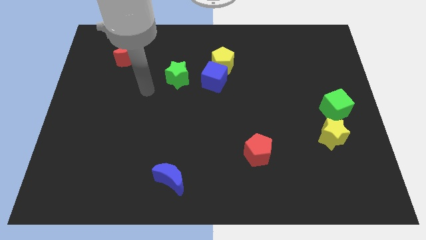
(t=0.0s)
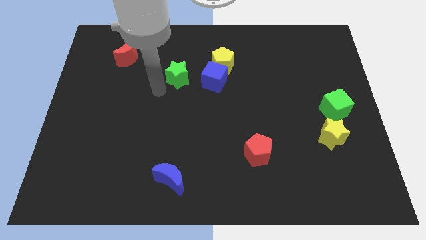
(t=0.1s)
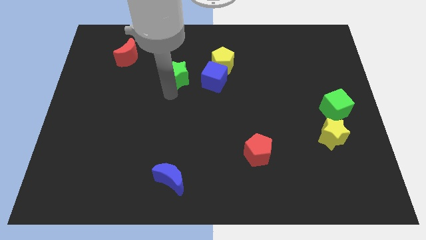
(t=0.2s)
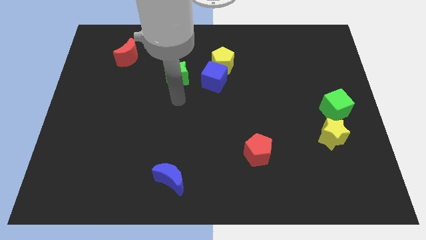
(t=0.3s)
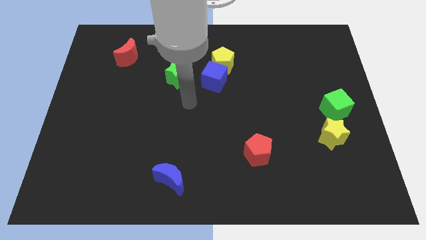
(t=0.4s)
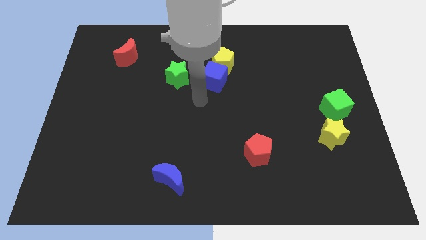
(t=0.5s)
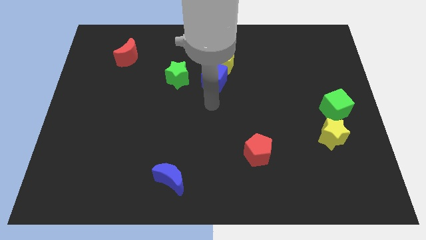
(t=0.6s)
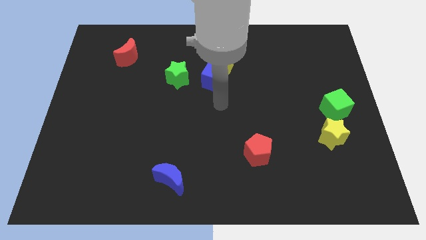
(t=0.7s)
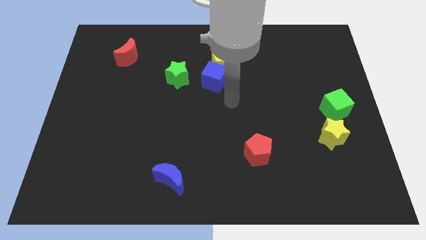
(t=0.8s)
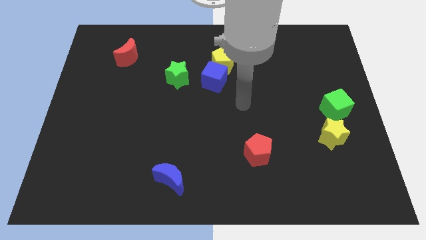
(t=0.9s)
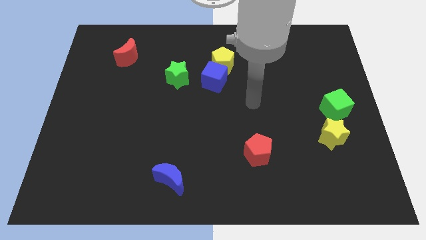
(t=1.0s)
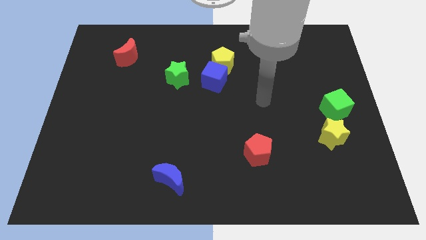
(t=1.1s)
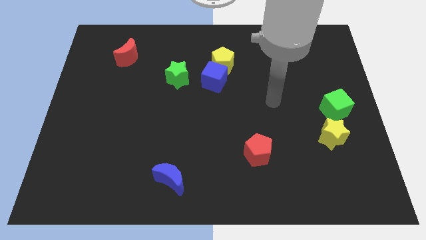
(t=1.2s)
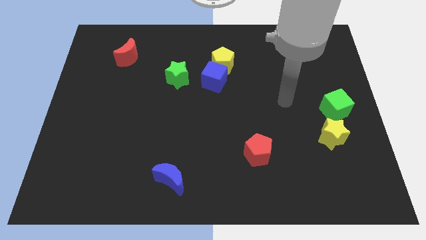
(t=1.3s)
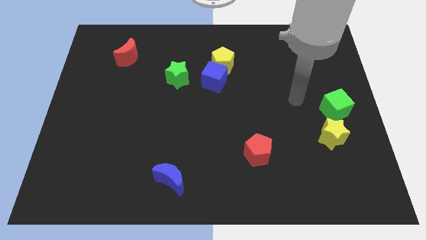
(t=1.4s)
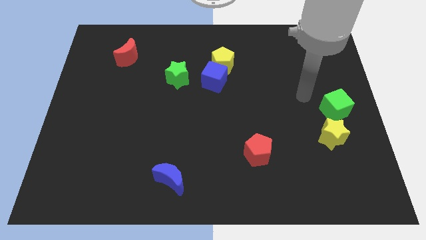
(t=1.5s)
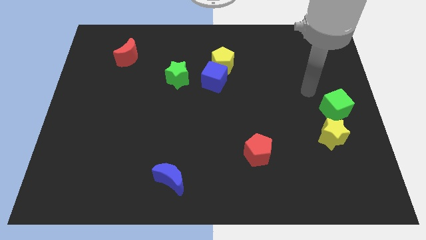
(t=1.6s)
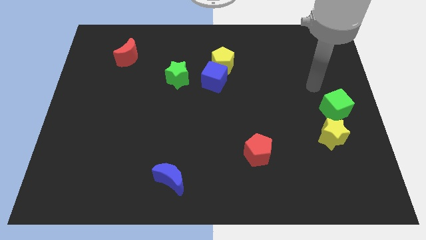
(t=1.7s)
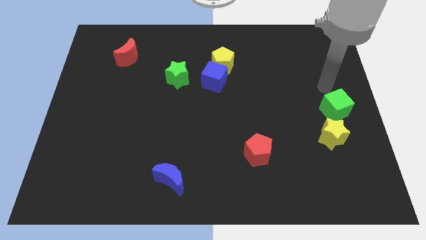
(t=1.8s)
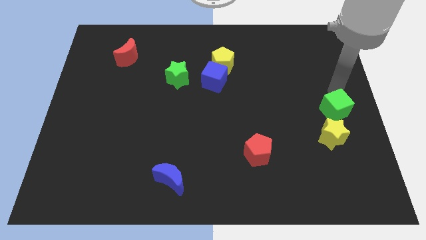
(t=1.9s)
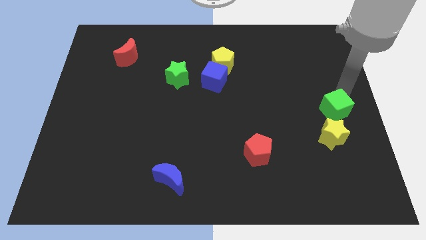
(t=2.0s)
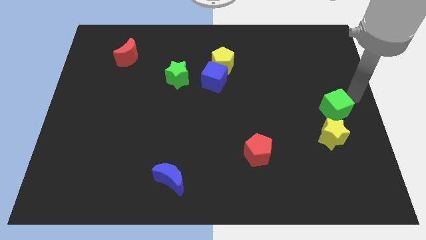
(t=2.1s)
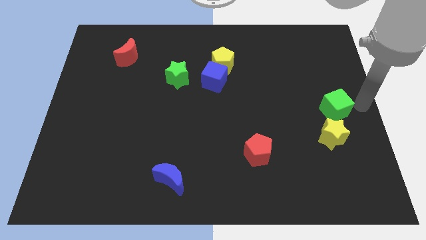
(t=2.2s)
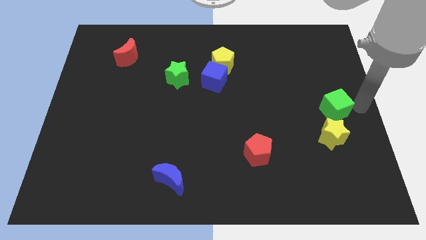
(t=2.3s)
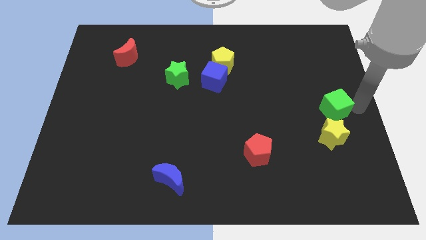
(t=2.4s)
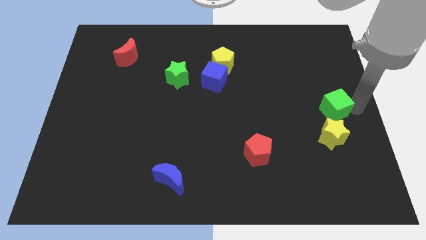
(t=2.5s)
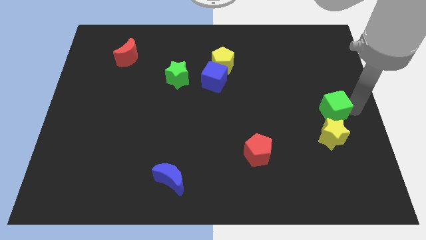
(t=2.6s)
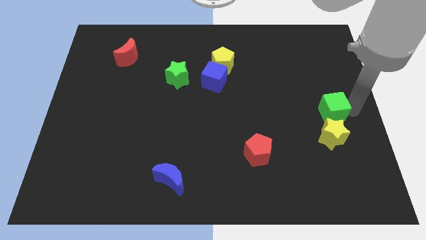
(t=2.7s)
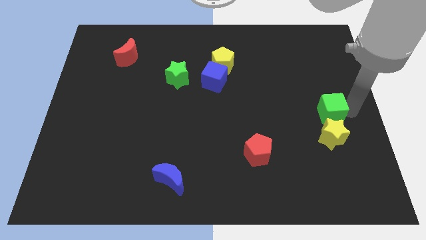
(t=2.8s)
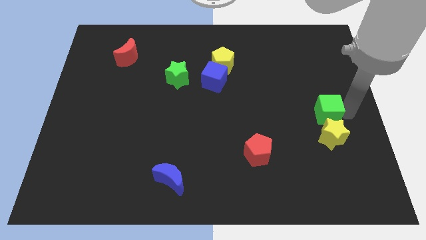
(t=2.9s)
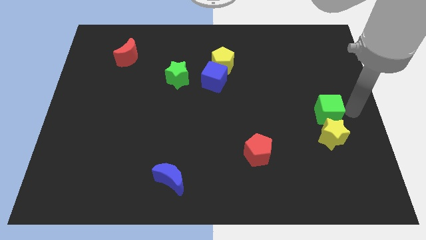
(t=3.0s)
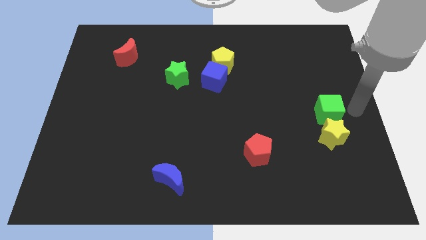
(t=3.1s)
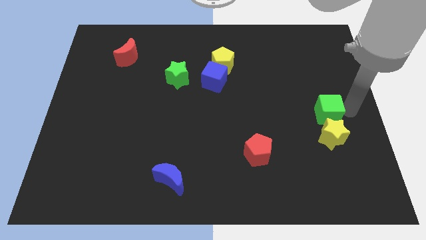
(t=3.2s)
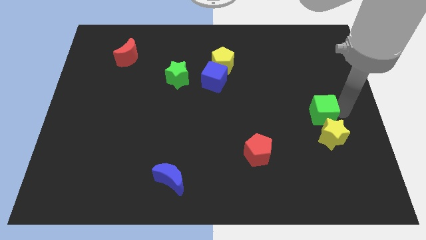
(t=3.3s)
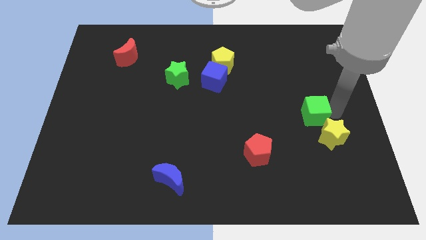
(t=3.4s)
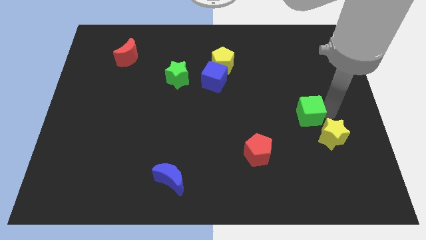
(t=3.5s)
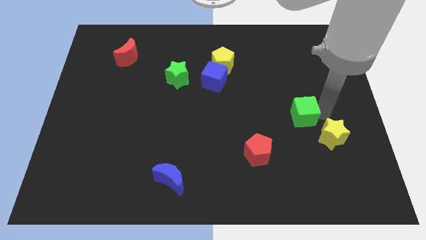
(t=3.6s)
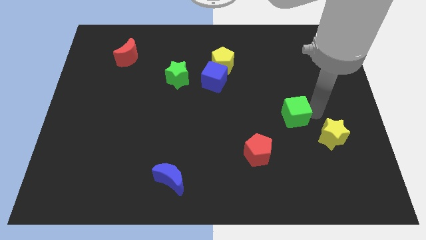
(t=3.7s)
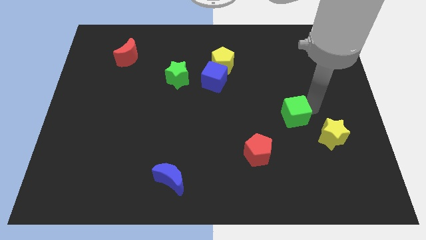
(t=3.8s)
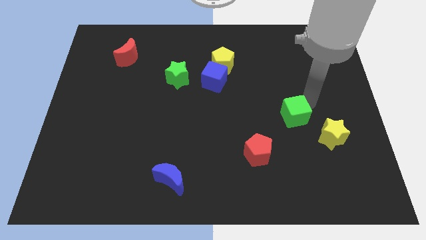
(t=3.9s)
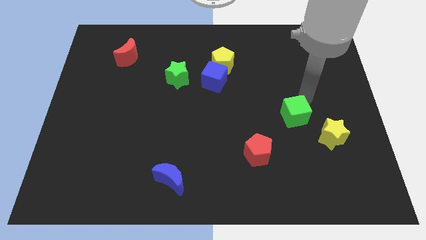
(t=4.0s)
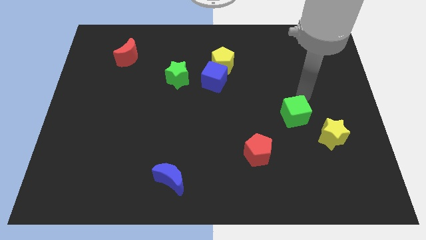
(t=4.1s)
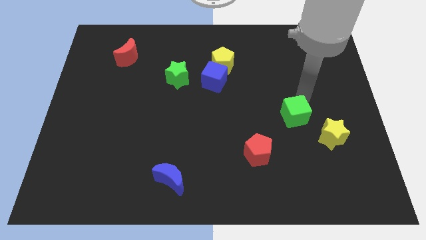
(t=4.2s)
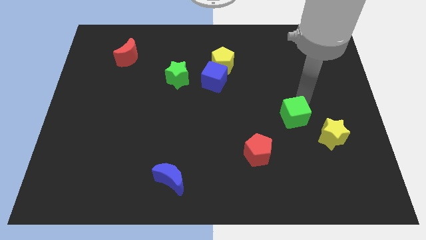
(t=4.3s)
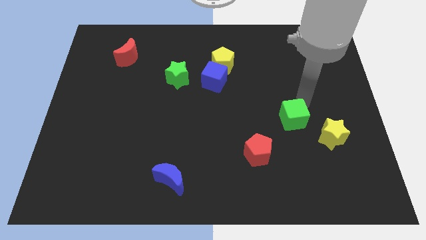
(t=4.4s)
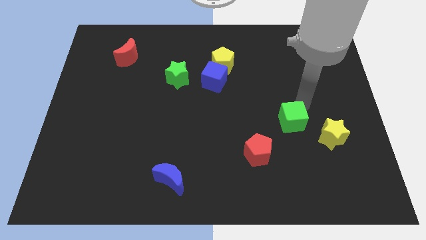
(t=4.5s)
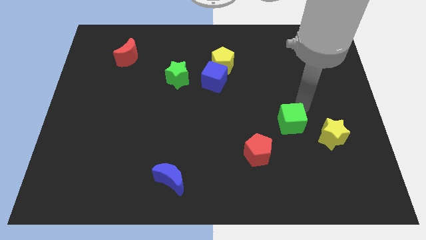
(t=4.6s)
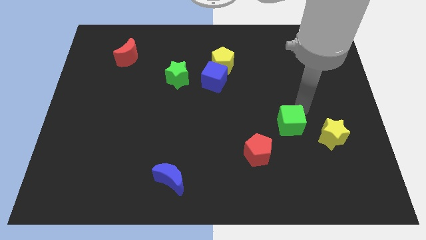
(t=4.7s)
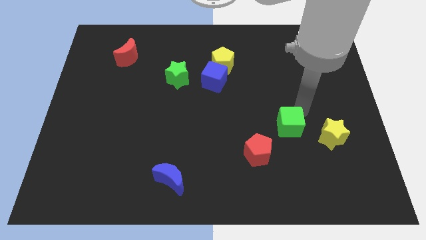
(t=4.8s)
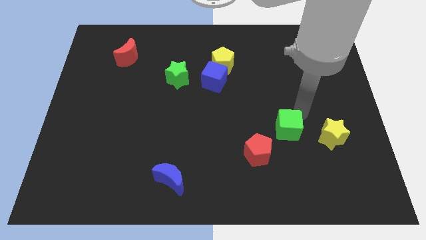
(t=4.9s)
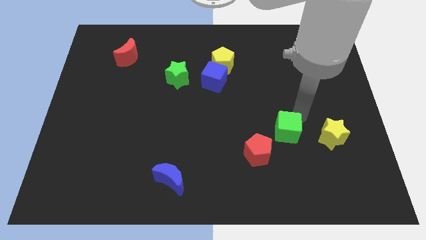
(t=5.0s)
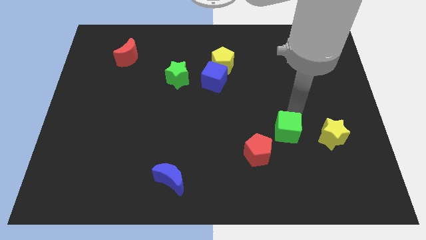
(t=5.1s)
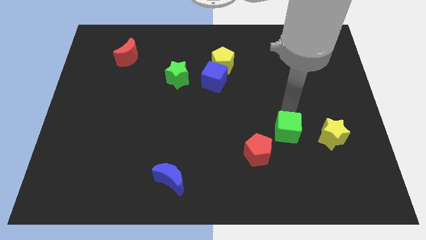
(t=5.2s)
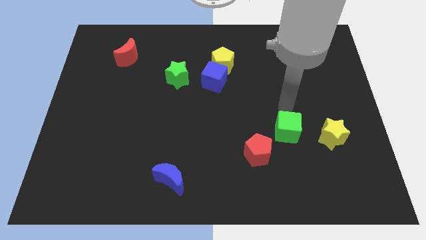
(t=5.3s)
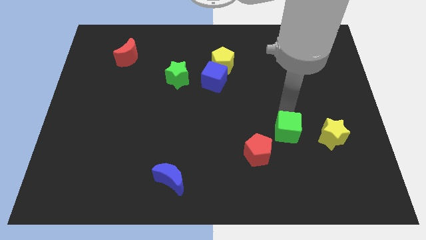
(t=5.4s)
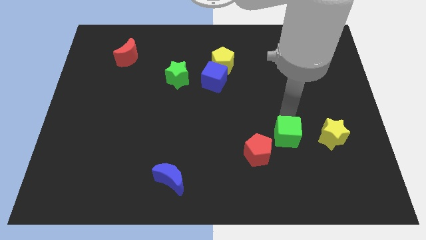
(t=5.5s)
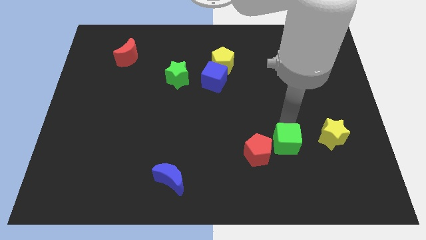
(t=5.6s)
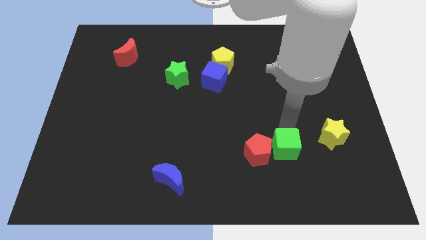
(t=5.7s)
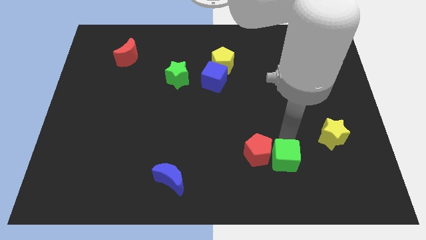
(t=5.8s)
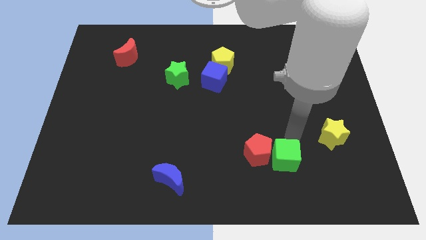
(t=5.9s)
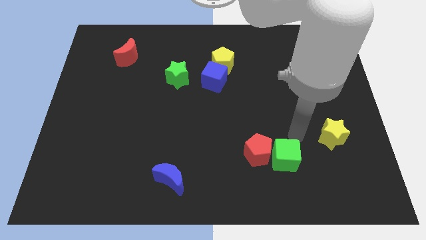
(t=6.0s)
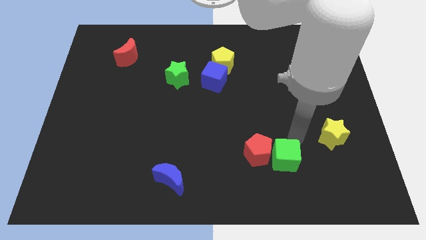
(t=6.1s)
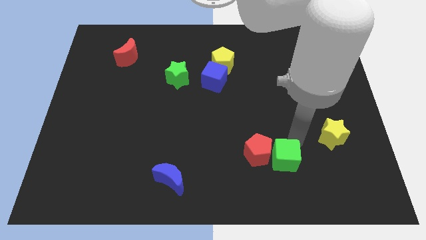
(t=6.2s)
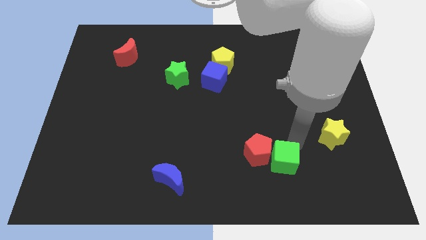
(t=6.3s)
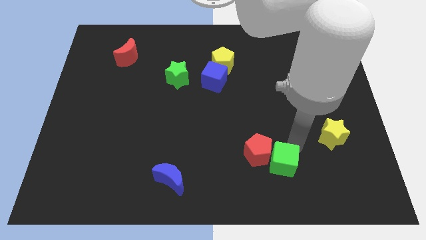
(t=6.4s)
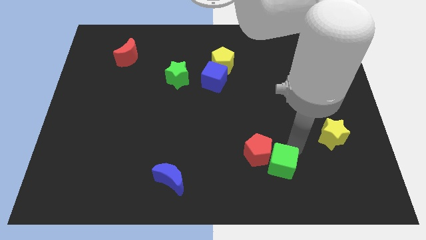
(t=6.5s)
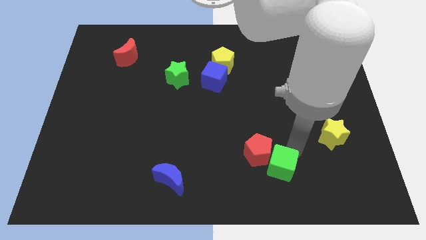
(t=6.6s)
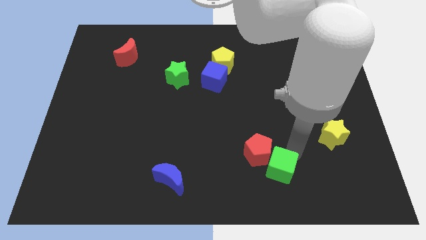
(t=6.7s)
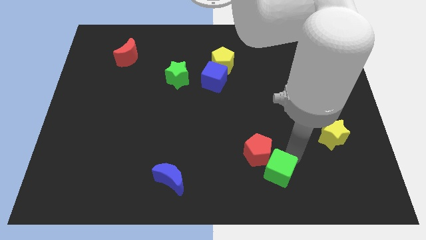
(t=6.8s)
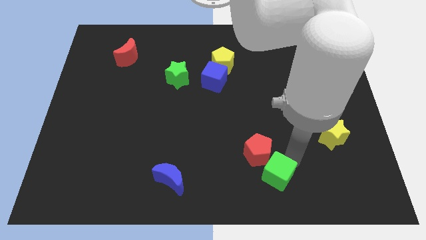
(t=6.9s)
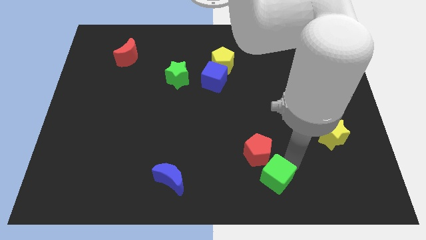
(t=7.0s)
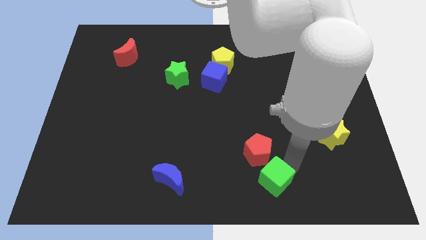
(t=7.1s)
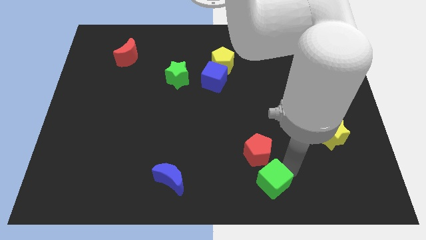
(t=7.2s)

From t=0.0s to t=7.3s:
move the green cube to the bottom side
